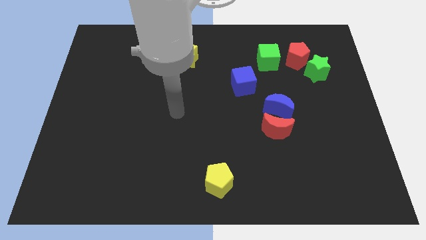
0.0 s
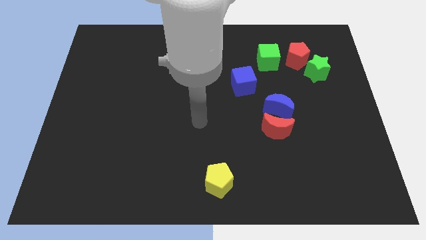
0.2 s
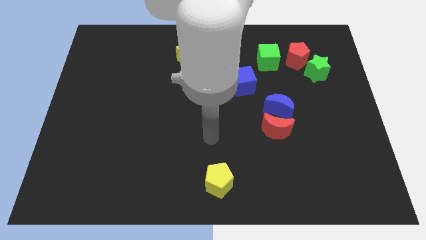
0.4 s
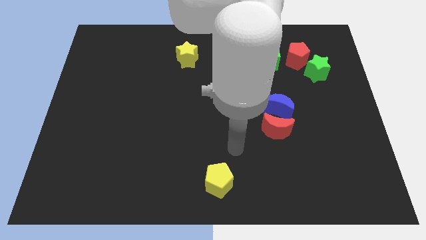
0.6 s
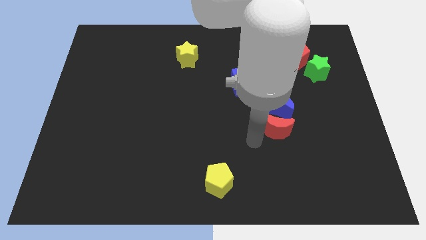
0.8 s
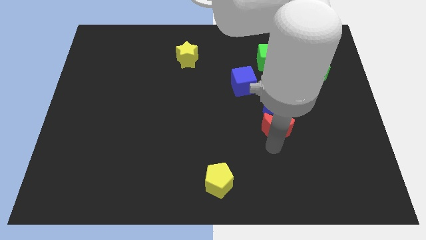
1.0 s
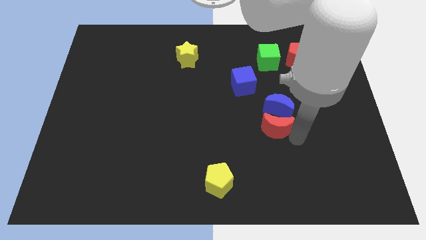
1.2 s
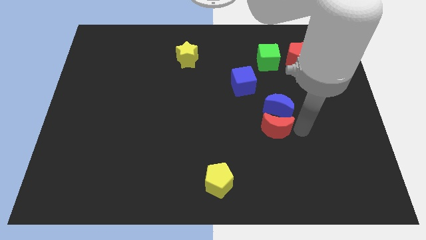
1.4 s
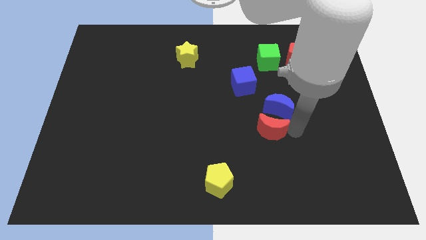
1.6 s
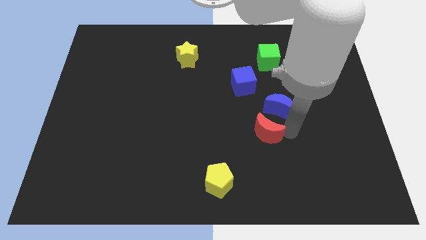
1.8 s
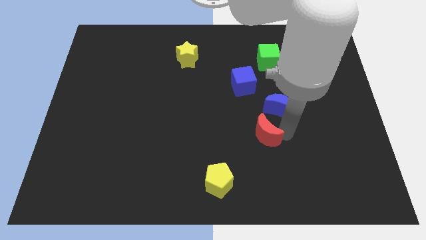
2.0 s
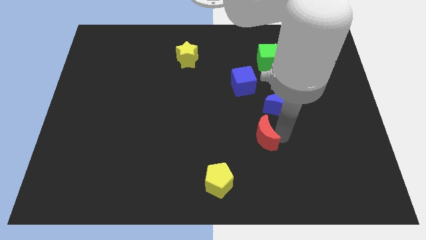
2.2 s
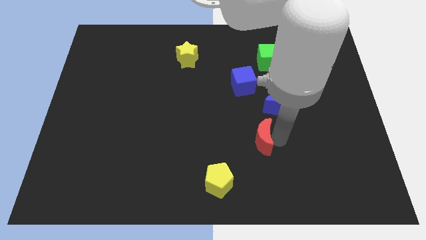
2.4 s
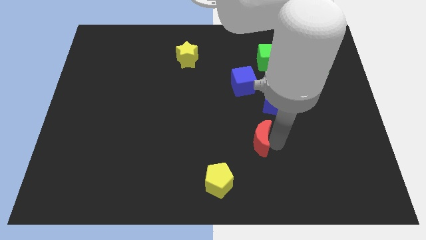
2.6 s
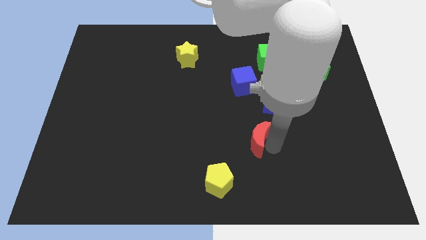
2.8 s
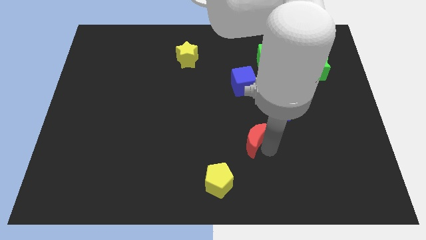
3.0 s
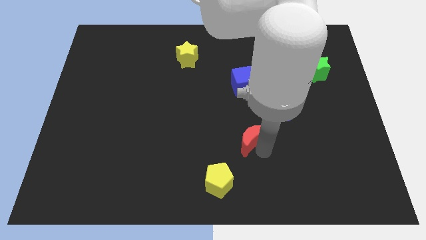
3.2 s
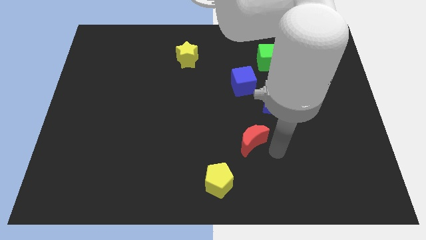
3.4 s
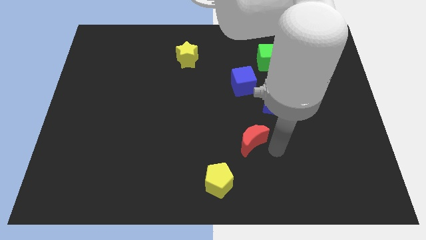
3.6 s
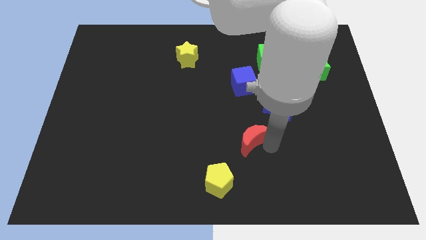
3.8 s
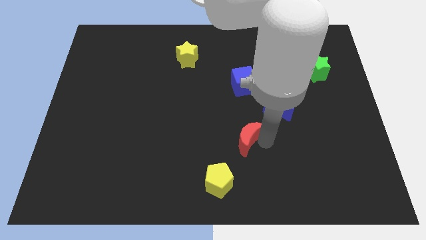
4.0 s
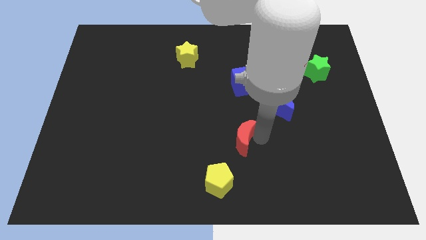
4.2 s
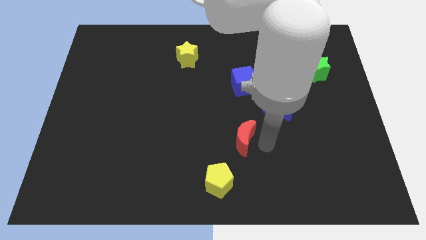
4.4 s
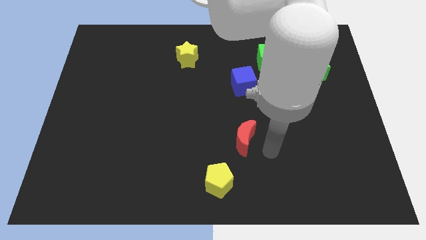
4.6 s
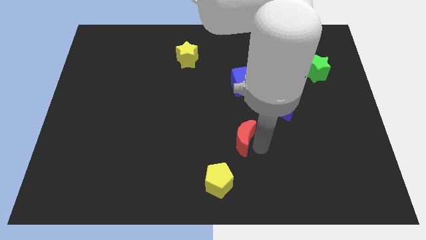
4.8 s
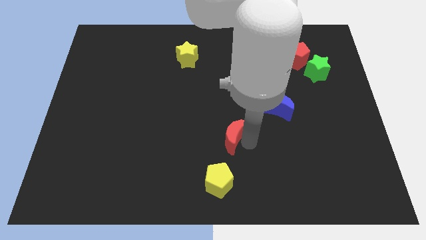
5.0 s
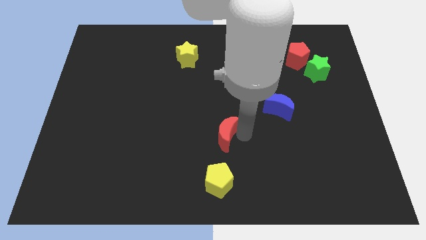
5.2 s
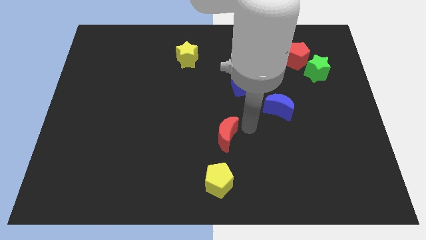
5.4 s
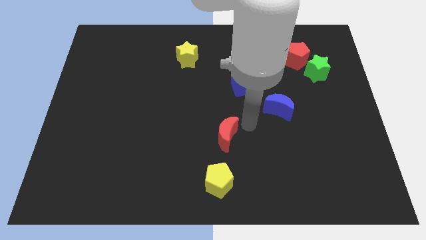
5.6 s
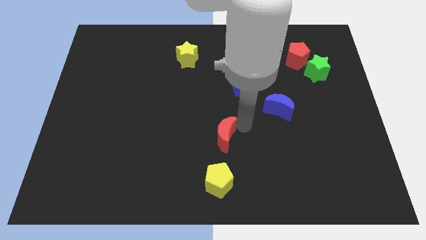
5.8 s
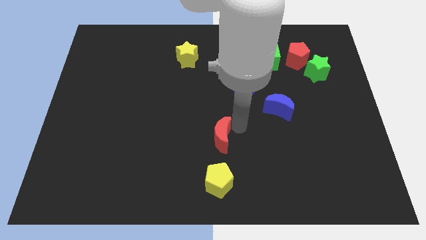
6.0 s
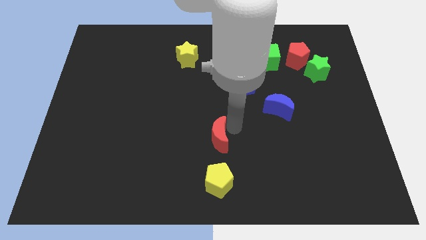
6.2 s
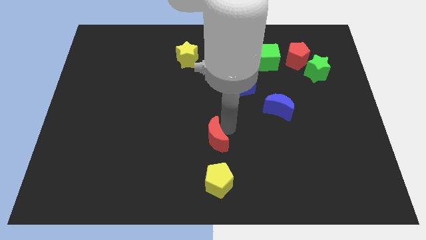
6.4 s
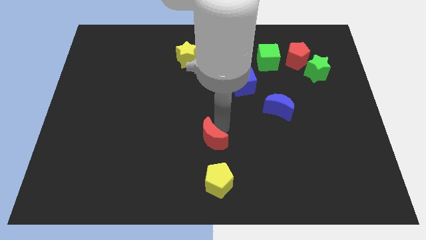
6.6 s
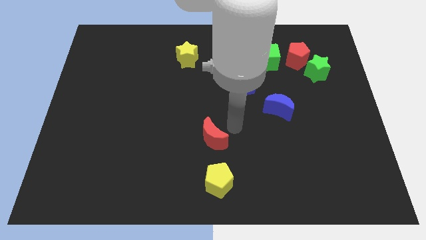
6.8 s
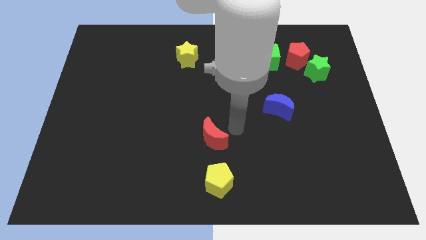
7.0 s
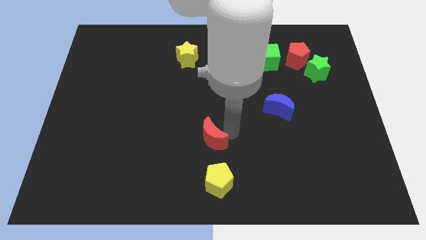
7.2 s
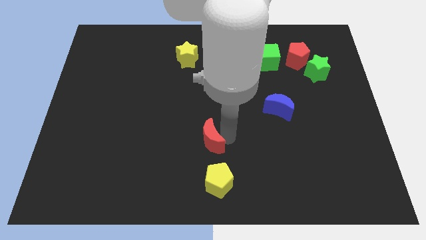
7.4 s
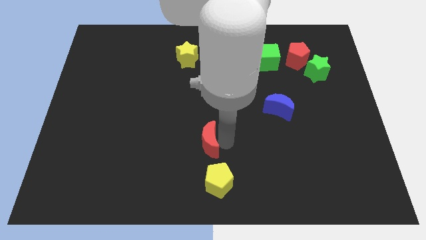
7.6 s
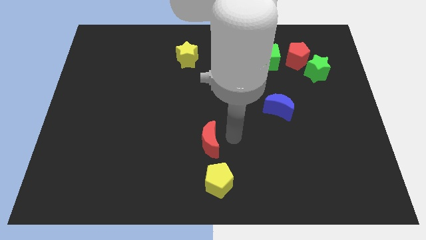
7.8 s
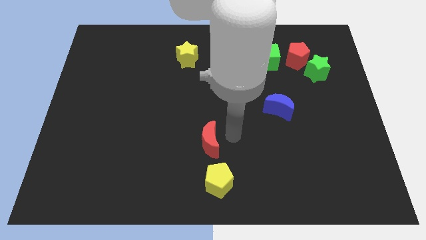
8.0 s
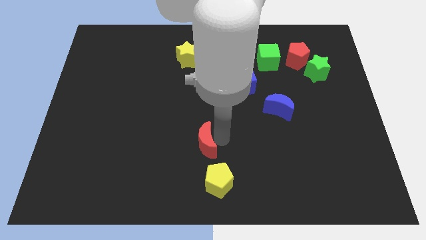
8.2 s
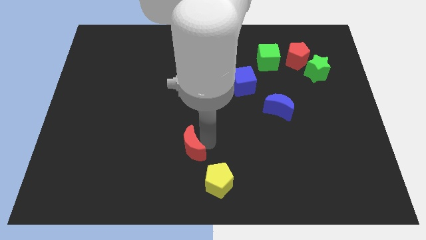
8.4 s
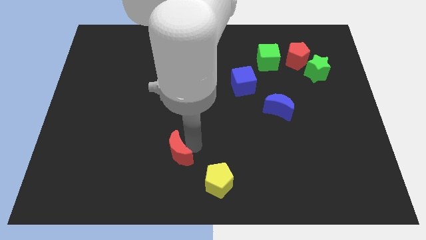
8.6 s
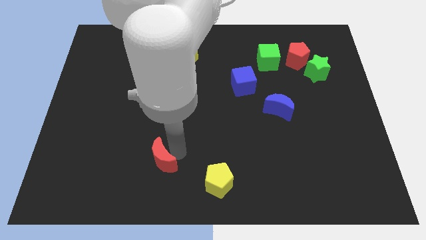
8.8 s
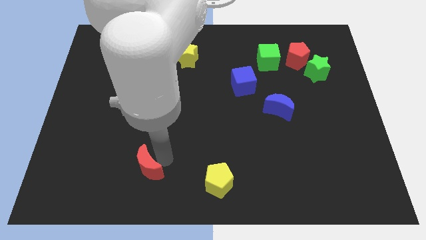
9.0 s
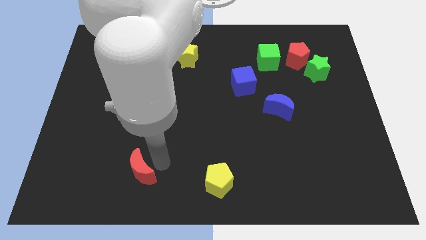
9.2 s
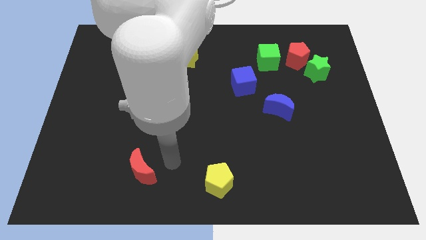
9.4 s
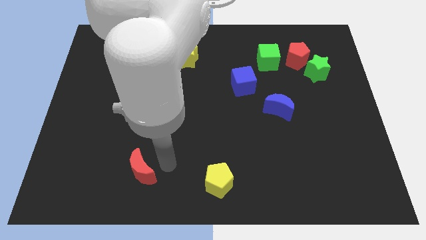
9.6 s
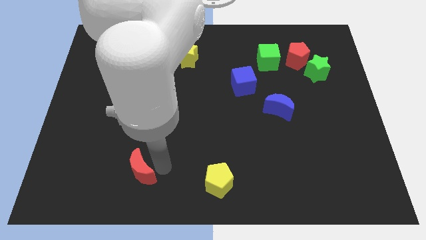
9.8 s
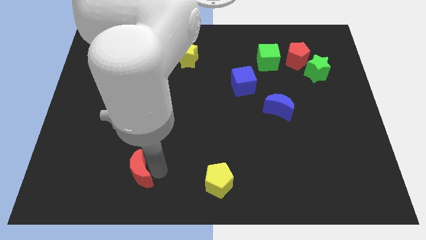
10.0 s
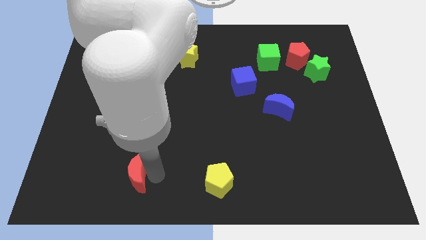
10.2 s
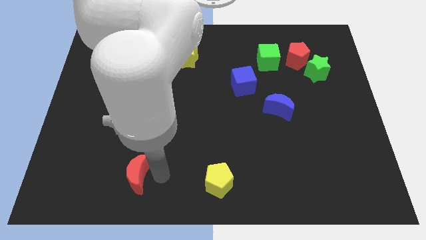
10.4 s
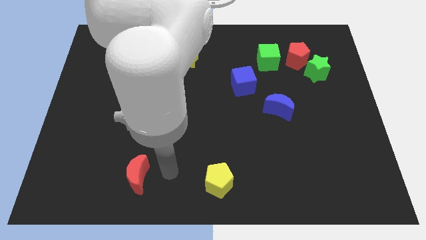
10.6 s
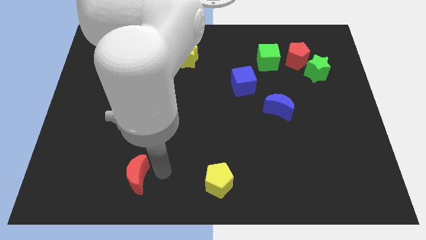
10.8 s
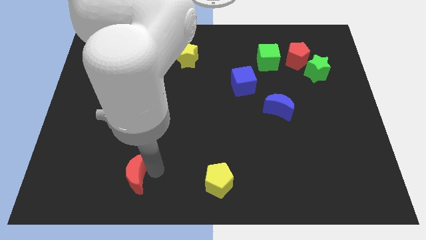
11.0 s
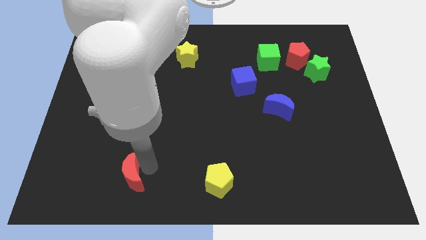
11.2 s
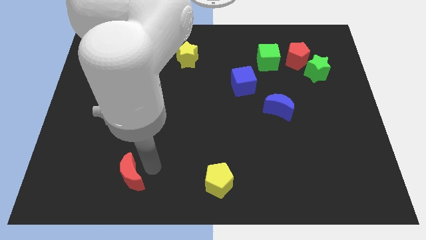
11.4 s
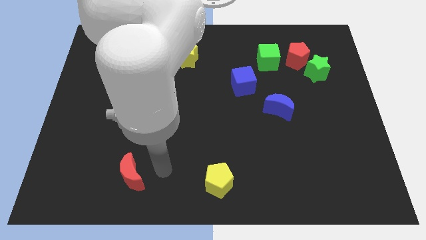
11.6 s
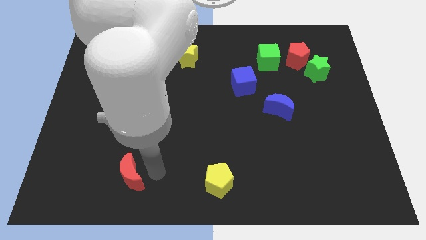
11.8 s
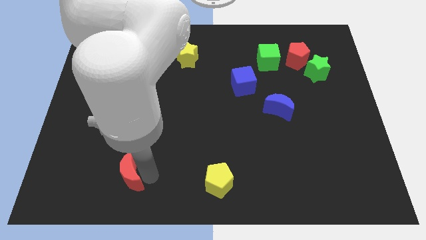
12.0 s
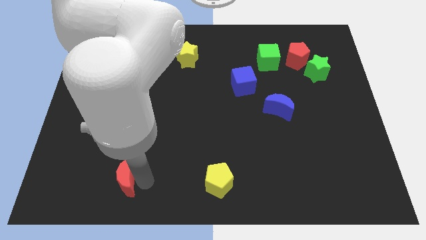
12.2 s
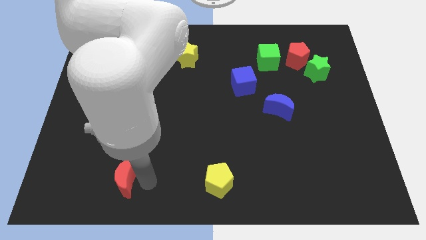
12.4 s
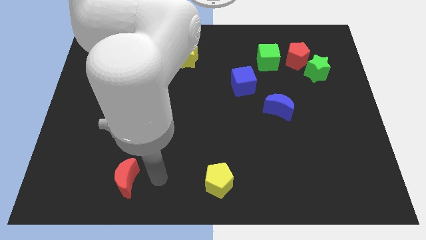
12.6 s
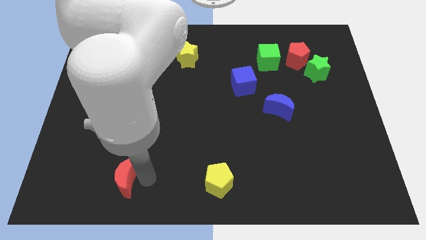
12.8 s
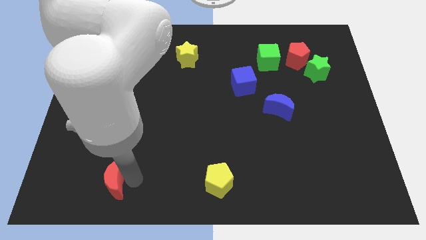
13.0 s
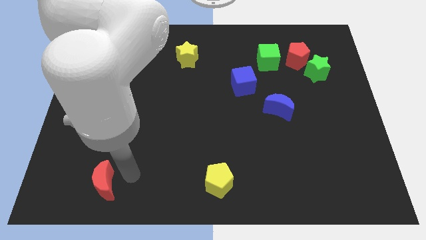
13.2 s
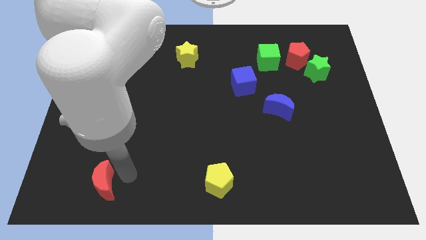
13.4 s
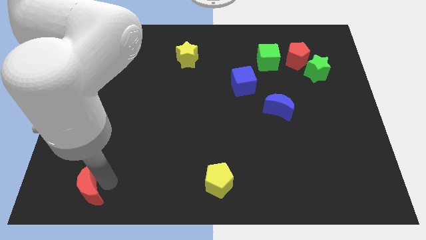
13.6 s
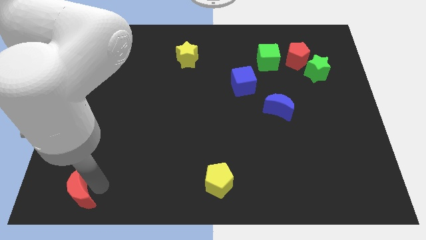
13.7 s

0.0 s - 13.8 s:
move the red moon to the bottom left of the board
